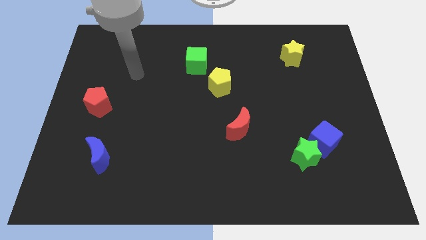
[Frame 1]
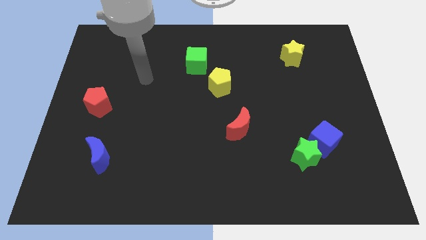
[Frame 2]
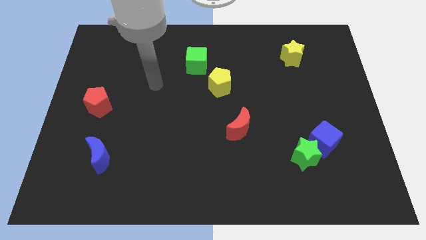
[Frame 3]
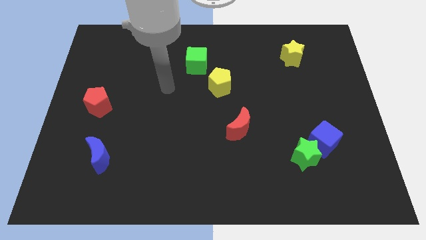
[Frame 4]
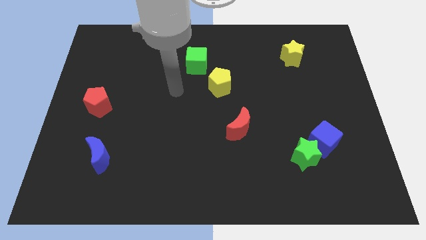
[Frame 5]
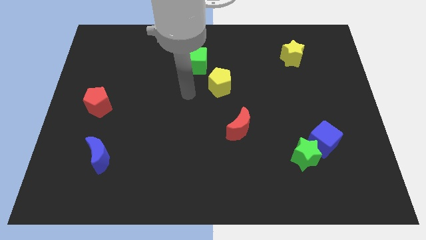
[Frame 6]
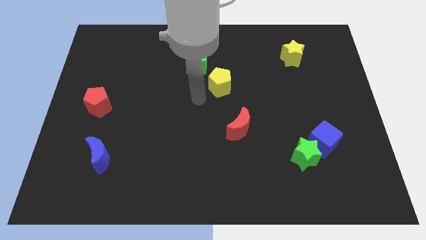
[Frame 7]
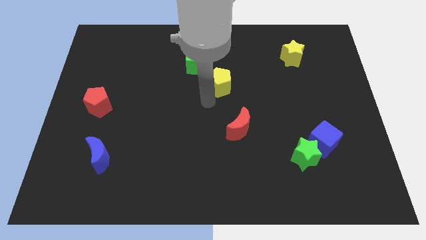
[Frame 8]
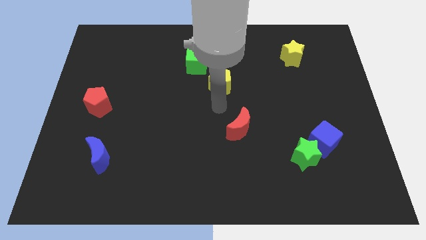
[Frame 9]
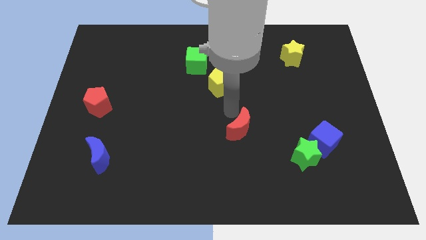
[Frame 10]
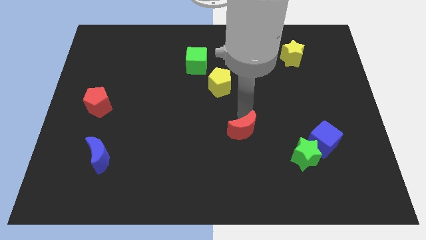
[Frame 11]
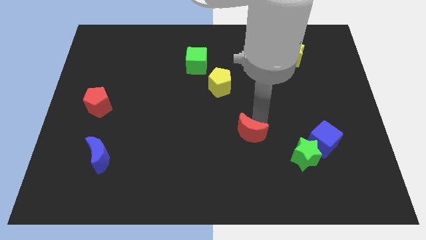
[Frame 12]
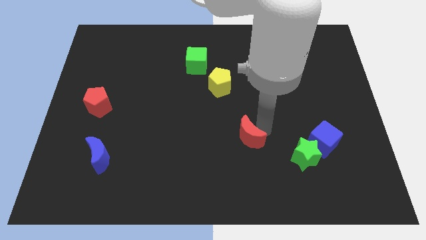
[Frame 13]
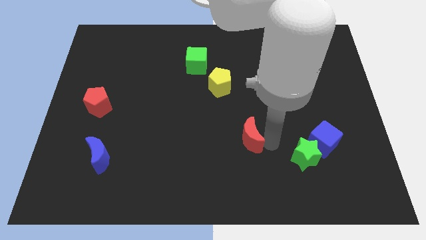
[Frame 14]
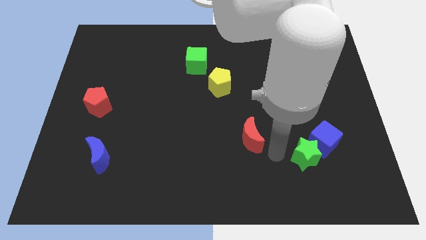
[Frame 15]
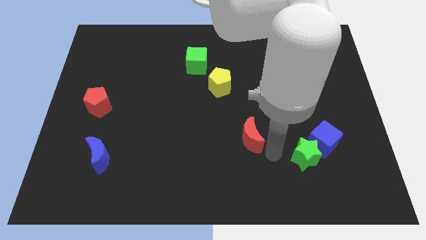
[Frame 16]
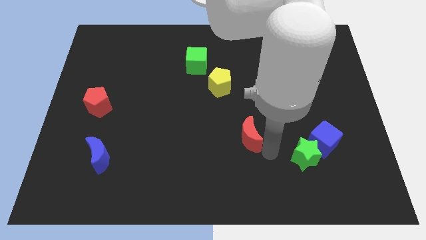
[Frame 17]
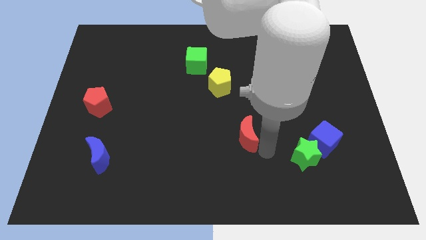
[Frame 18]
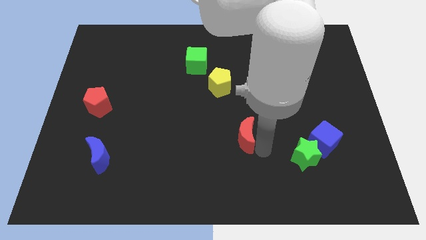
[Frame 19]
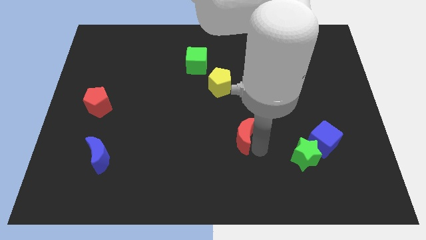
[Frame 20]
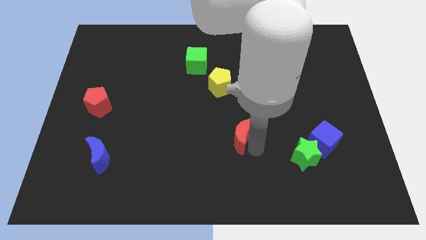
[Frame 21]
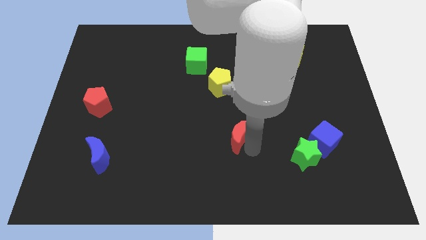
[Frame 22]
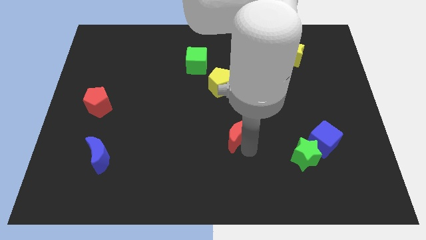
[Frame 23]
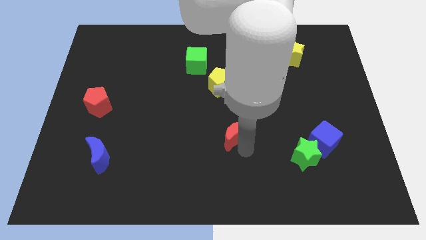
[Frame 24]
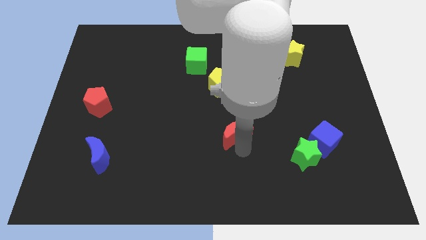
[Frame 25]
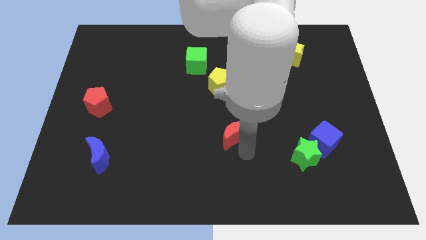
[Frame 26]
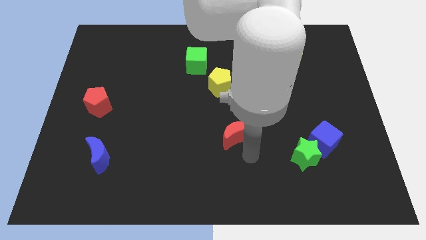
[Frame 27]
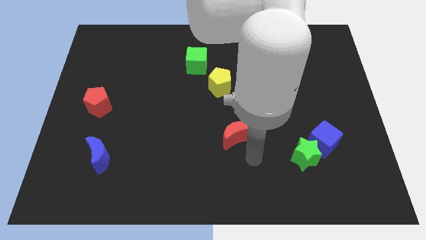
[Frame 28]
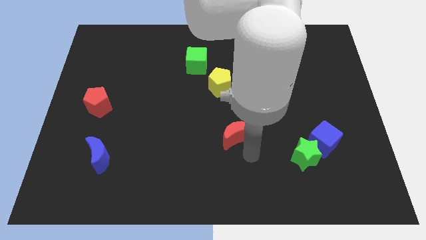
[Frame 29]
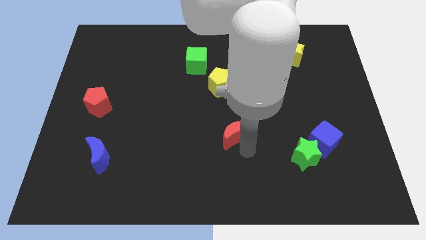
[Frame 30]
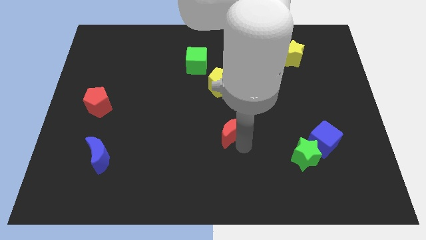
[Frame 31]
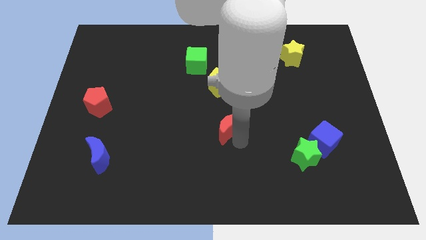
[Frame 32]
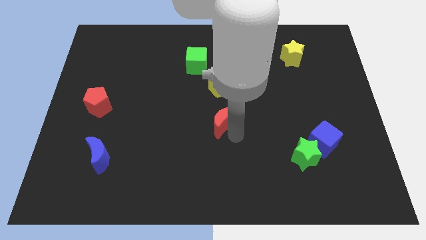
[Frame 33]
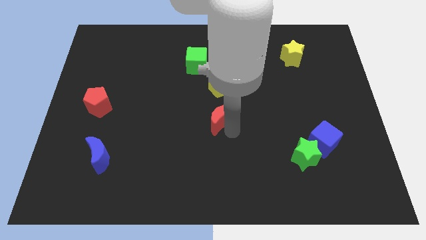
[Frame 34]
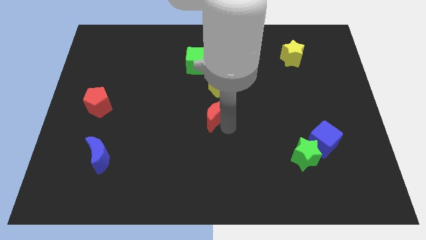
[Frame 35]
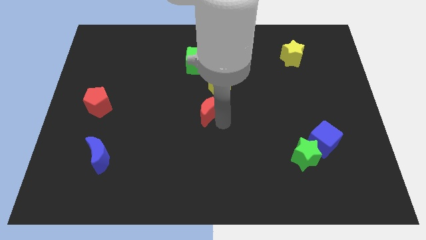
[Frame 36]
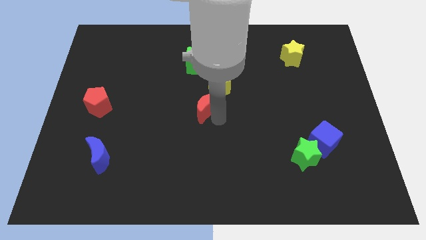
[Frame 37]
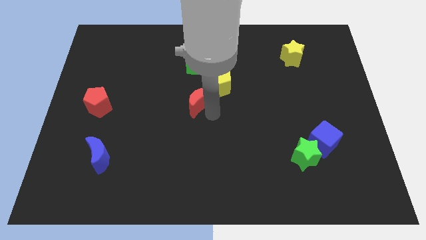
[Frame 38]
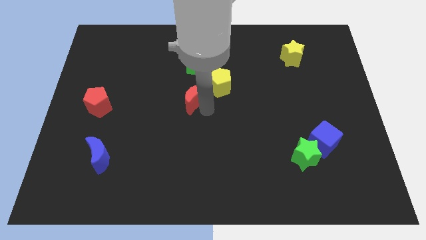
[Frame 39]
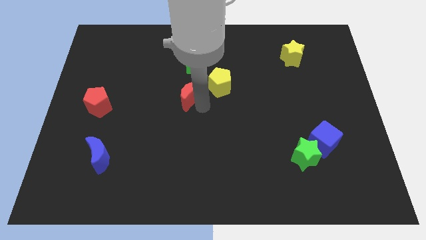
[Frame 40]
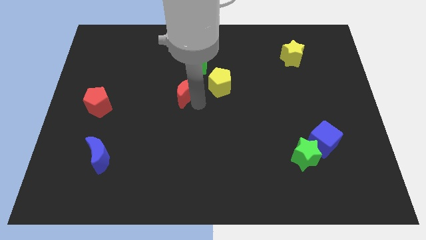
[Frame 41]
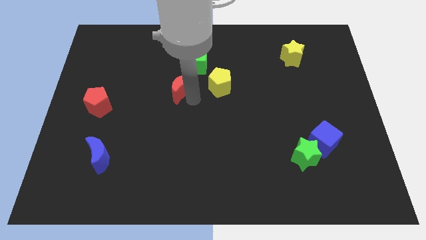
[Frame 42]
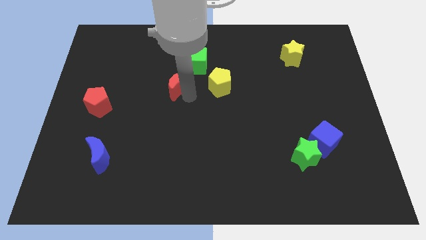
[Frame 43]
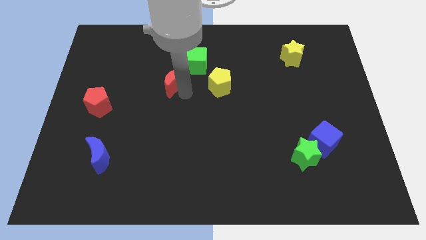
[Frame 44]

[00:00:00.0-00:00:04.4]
slide the red moon up and to the left diagonally

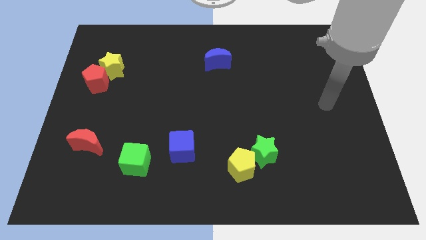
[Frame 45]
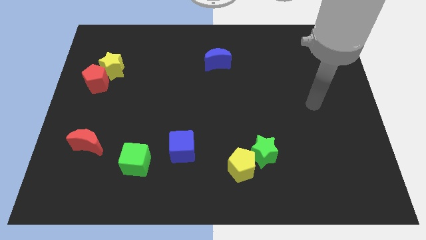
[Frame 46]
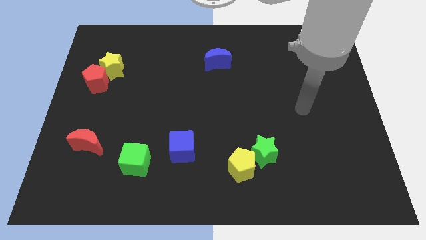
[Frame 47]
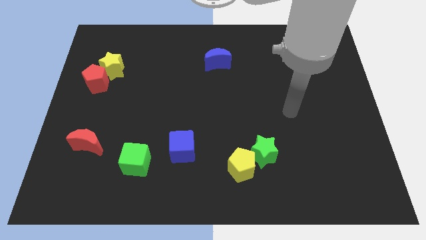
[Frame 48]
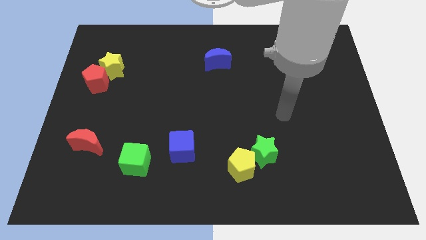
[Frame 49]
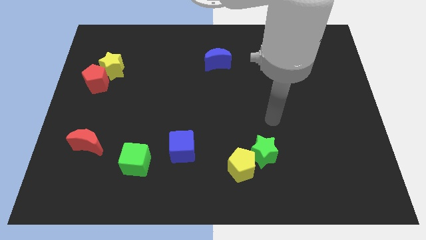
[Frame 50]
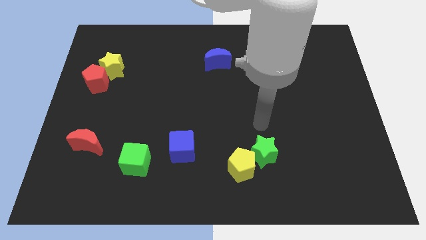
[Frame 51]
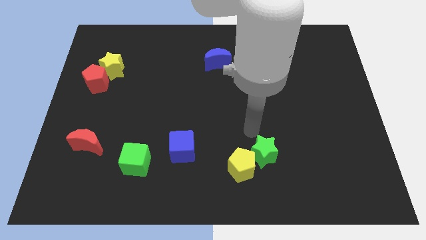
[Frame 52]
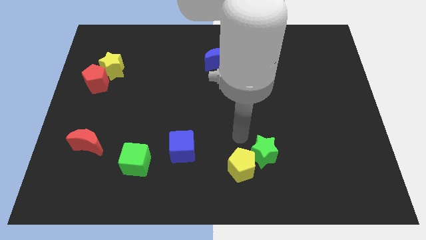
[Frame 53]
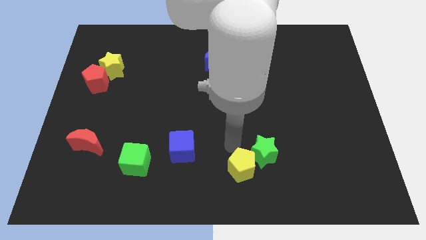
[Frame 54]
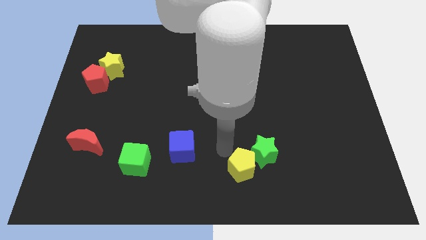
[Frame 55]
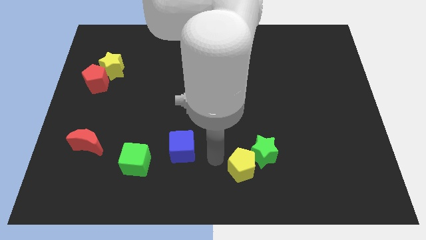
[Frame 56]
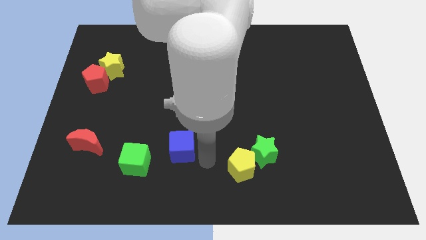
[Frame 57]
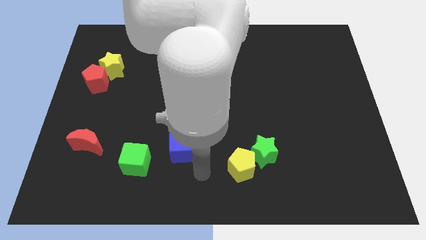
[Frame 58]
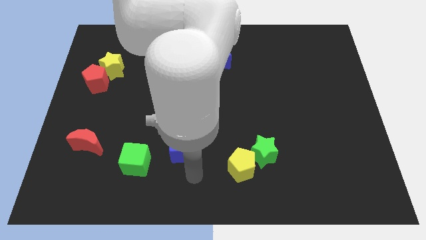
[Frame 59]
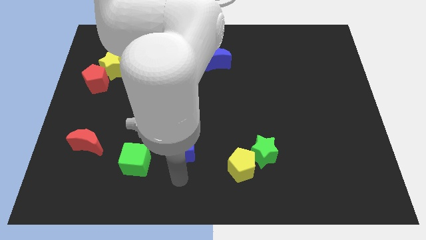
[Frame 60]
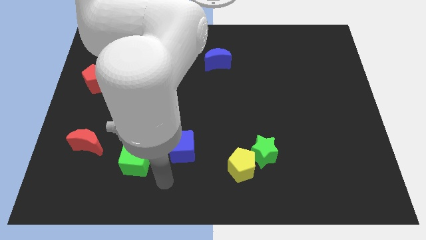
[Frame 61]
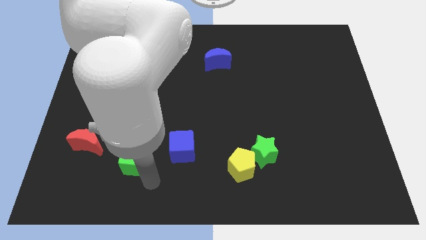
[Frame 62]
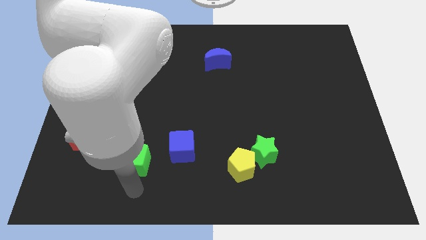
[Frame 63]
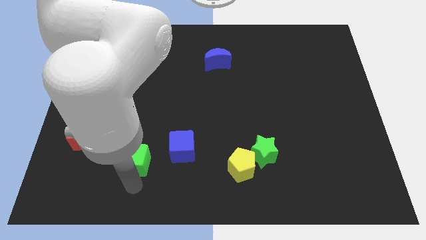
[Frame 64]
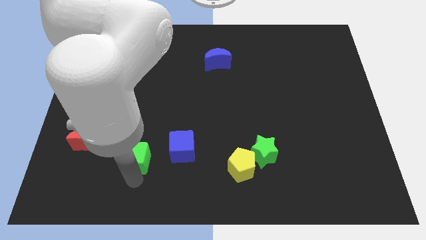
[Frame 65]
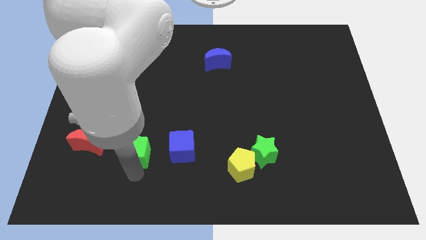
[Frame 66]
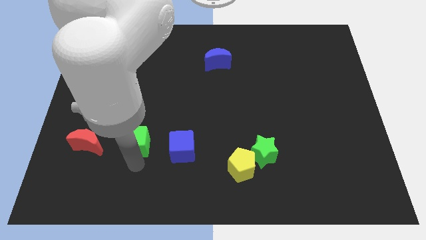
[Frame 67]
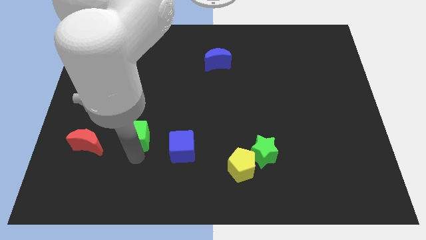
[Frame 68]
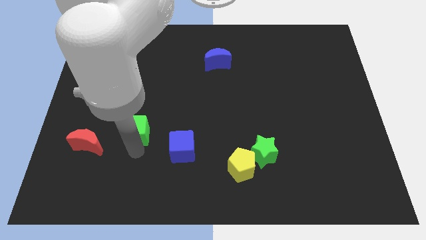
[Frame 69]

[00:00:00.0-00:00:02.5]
slightly slide the green cube up

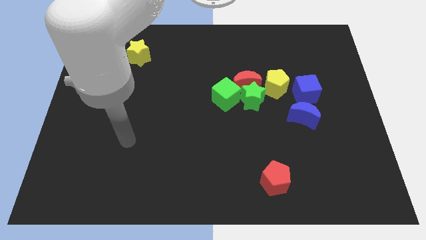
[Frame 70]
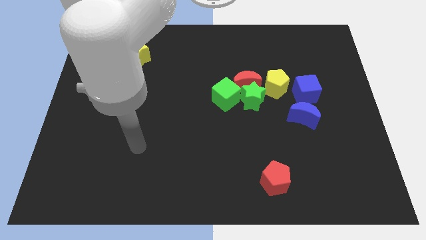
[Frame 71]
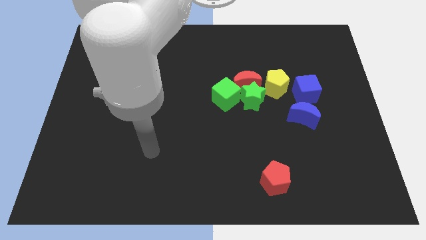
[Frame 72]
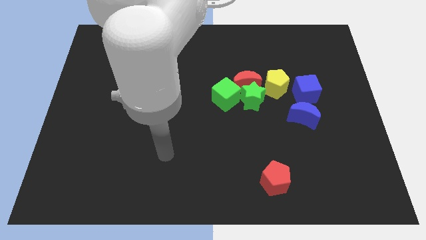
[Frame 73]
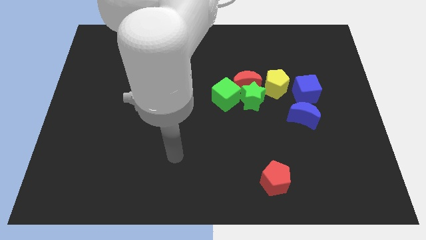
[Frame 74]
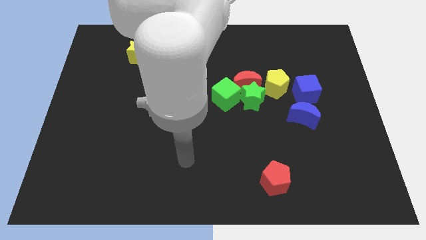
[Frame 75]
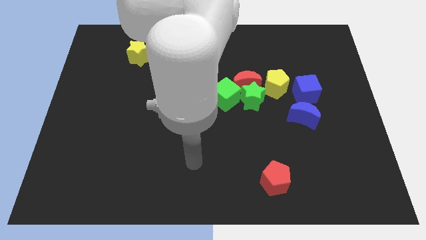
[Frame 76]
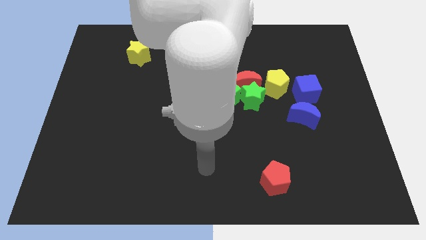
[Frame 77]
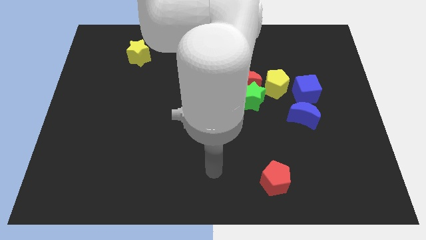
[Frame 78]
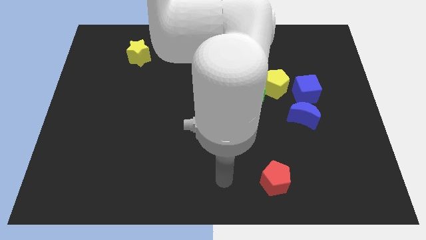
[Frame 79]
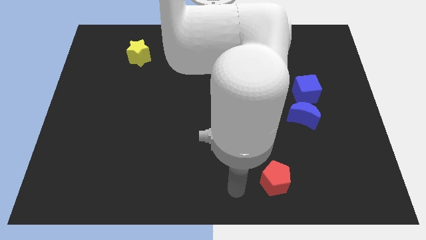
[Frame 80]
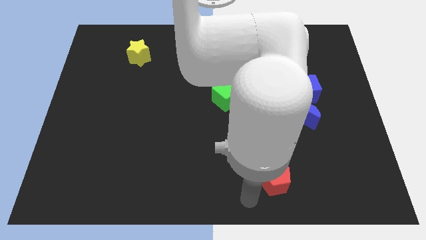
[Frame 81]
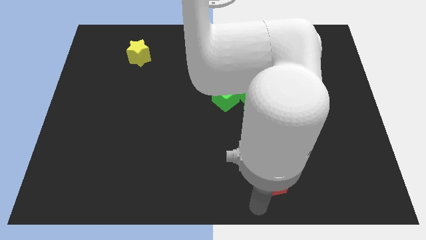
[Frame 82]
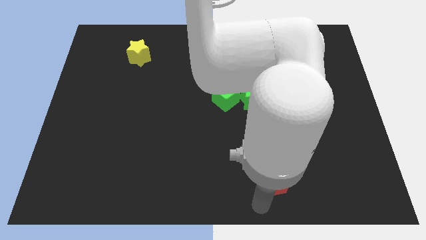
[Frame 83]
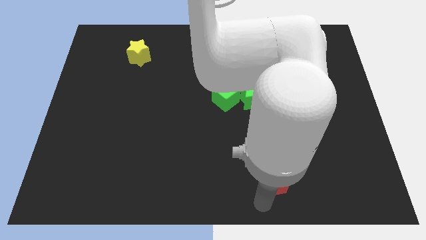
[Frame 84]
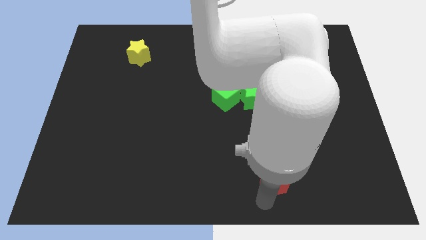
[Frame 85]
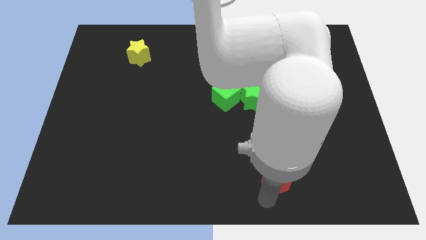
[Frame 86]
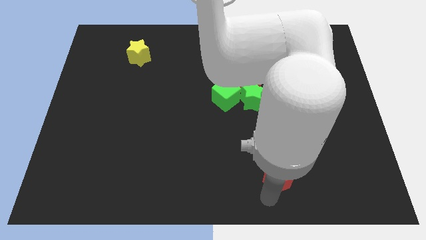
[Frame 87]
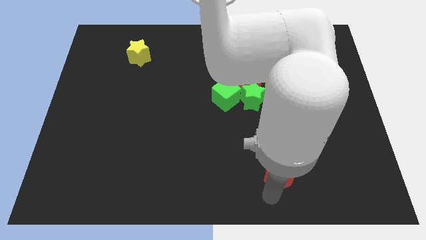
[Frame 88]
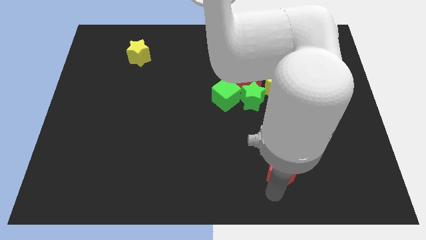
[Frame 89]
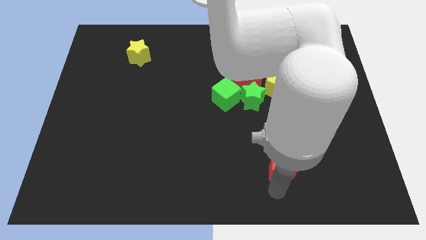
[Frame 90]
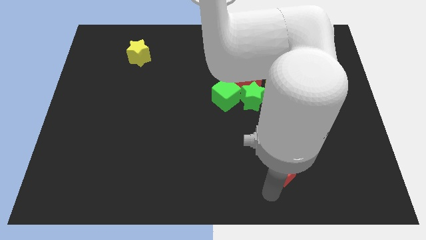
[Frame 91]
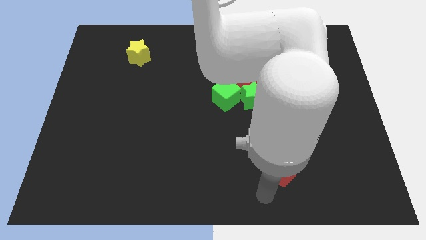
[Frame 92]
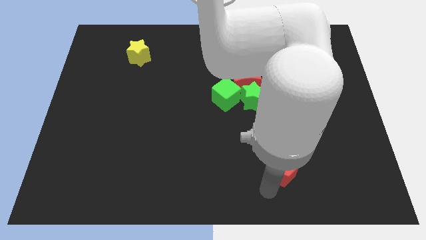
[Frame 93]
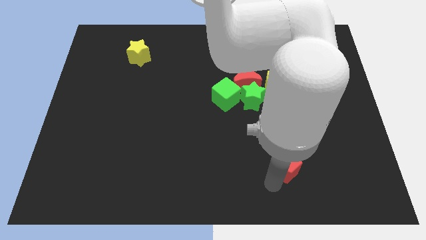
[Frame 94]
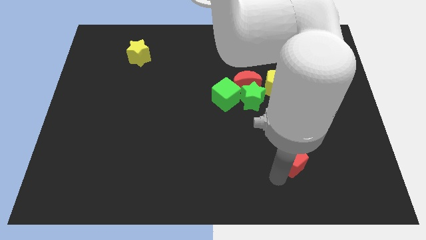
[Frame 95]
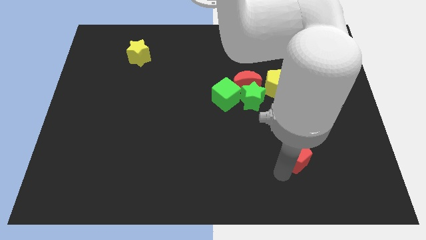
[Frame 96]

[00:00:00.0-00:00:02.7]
slightly move the red pentagon diagonally upwards and right
